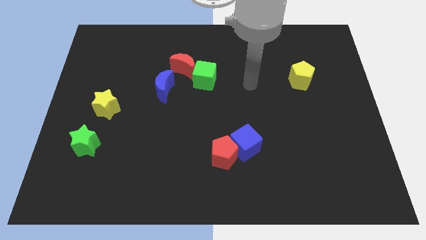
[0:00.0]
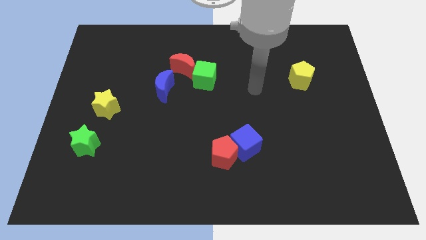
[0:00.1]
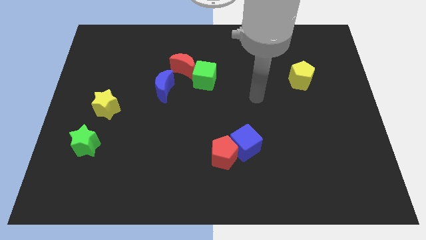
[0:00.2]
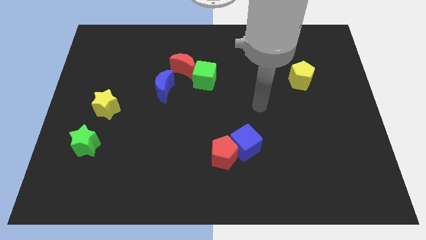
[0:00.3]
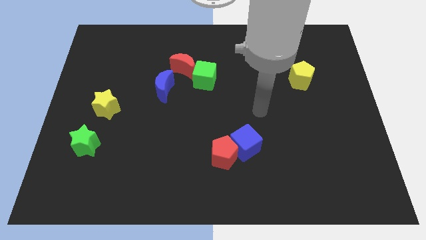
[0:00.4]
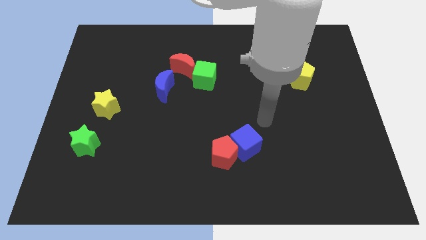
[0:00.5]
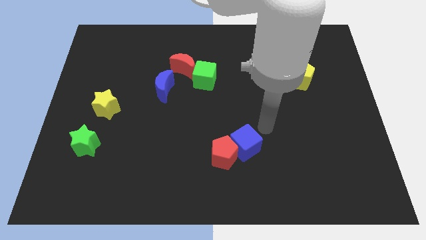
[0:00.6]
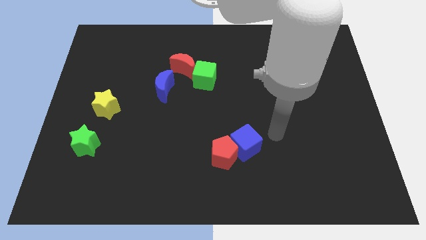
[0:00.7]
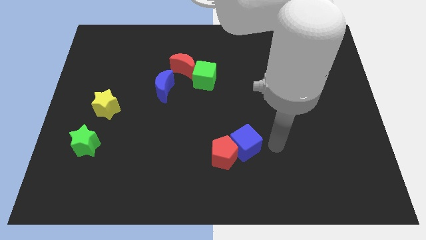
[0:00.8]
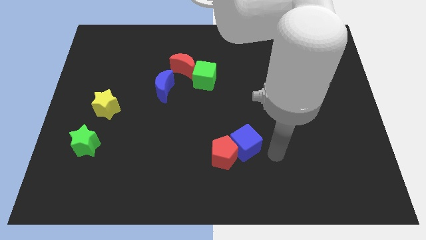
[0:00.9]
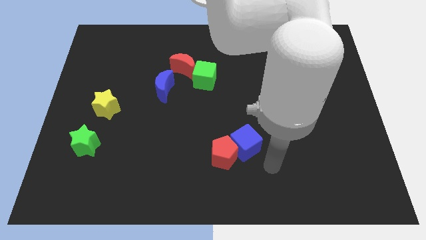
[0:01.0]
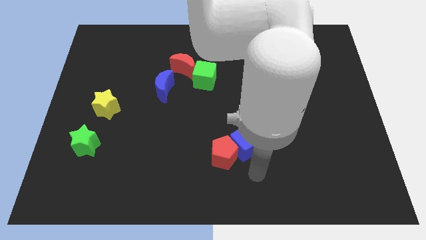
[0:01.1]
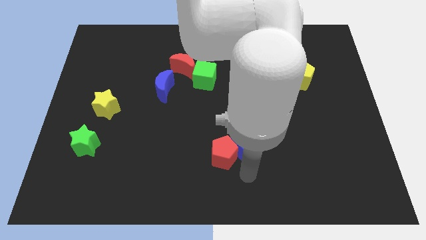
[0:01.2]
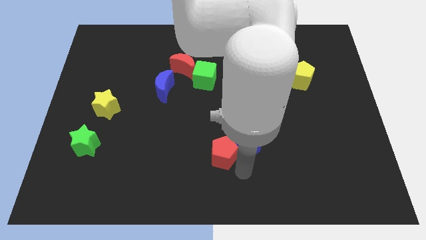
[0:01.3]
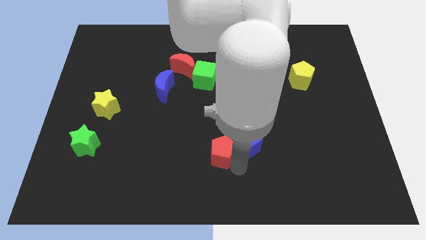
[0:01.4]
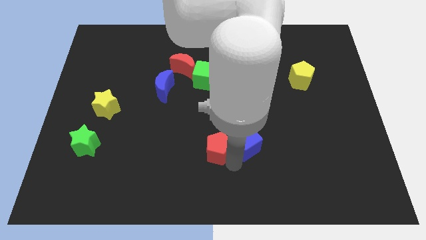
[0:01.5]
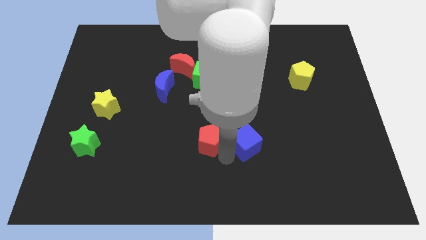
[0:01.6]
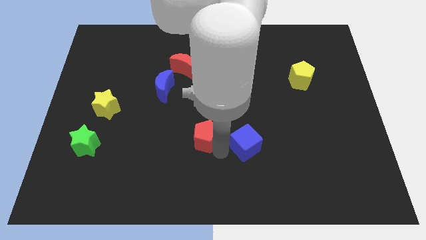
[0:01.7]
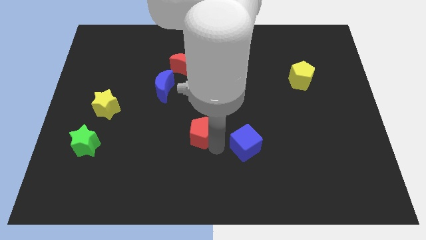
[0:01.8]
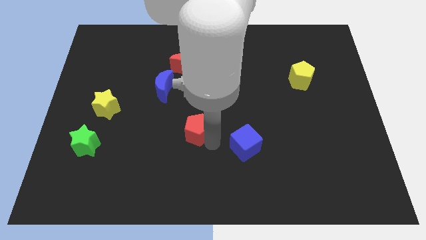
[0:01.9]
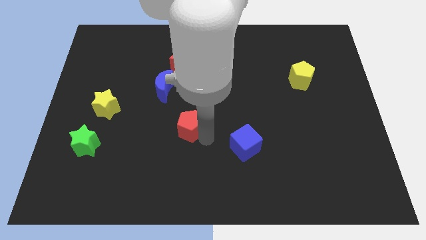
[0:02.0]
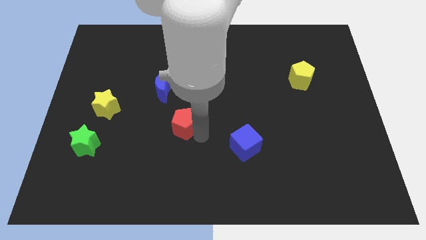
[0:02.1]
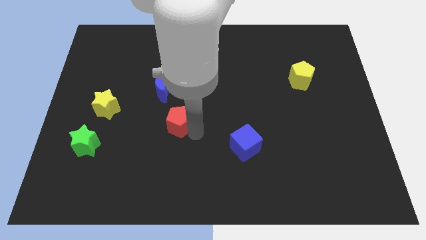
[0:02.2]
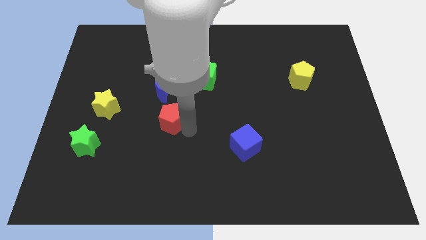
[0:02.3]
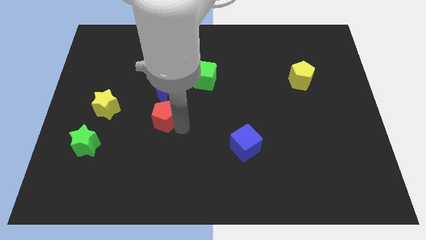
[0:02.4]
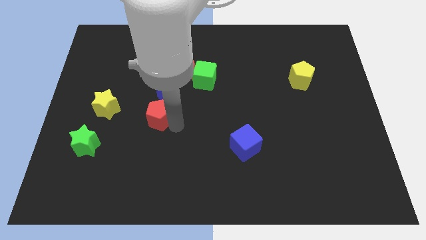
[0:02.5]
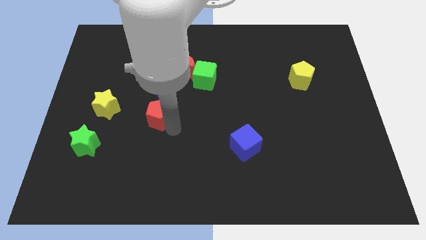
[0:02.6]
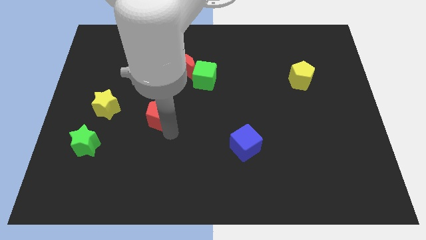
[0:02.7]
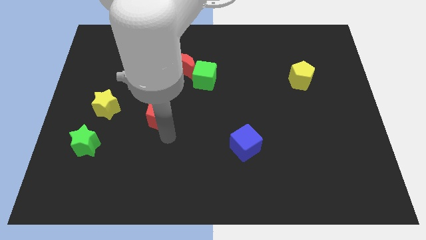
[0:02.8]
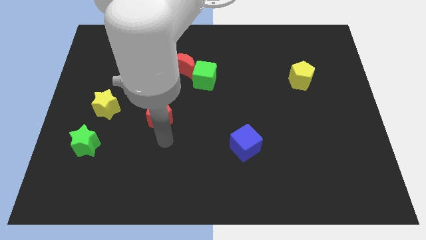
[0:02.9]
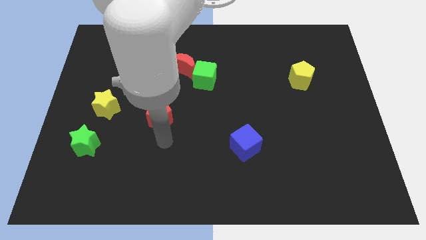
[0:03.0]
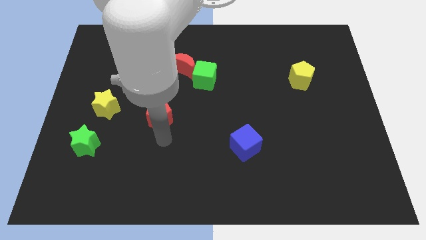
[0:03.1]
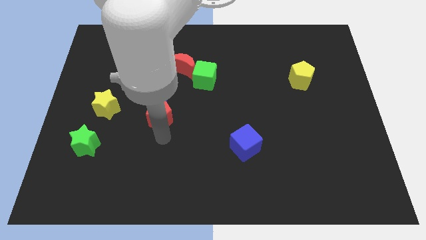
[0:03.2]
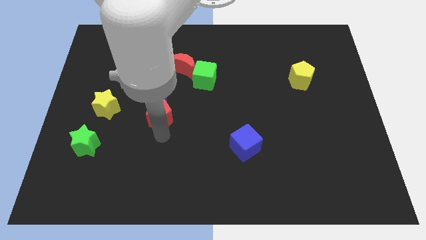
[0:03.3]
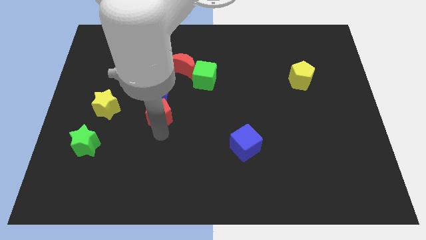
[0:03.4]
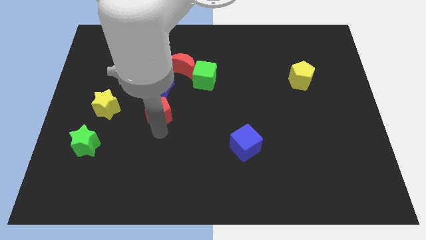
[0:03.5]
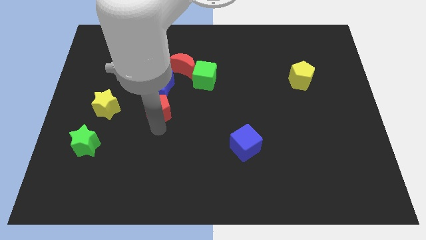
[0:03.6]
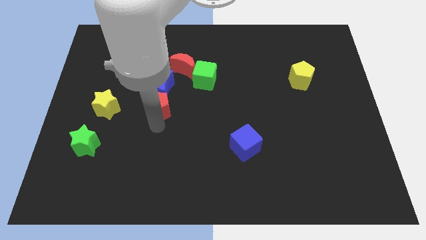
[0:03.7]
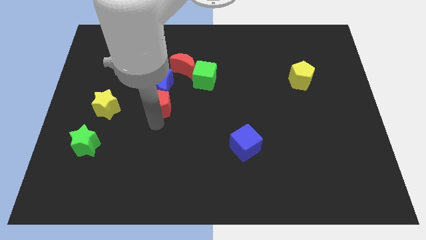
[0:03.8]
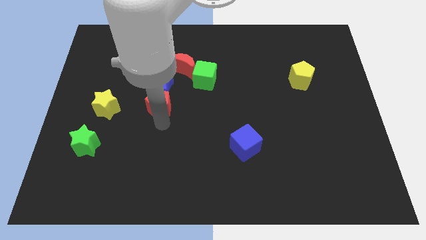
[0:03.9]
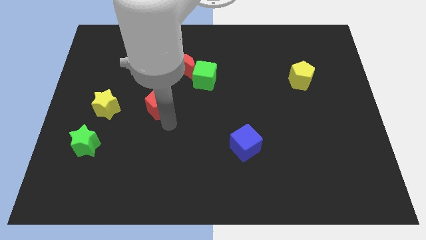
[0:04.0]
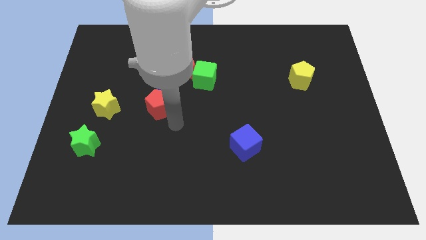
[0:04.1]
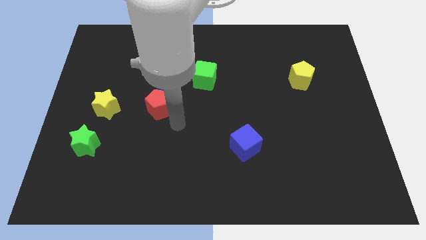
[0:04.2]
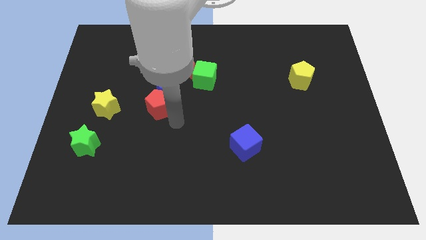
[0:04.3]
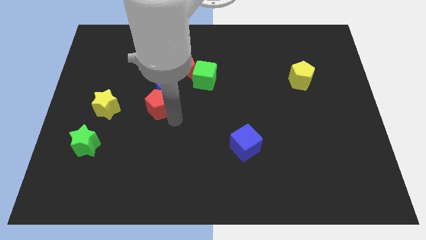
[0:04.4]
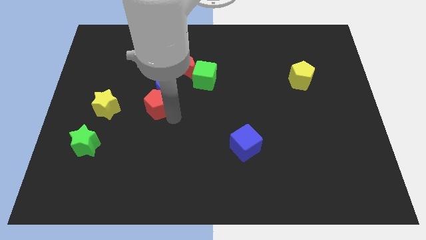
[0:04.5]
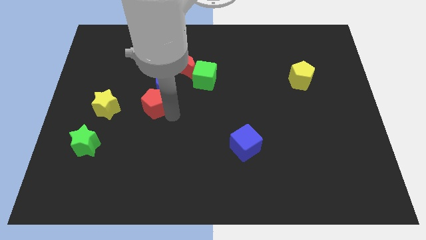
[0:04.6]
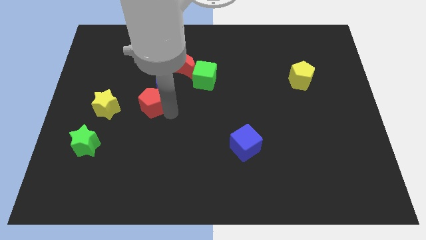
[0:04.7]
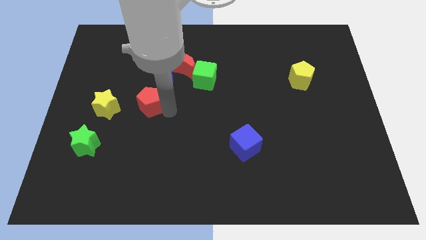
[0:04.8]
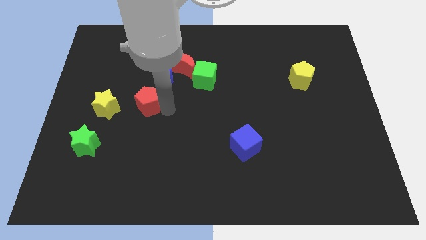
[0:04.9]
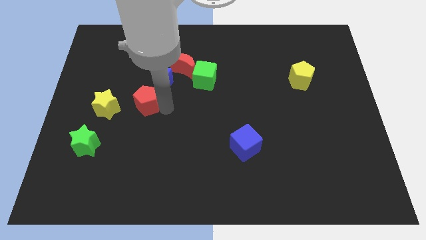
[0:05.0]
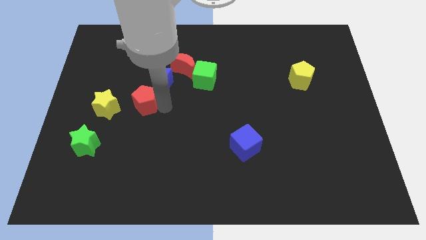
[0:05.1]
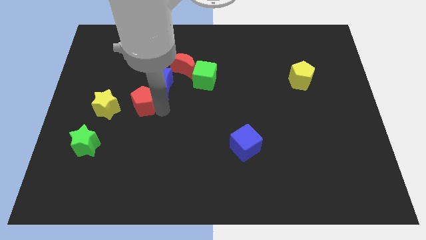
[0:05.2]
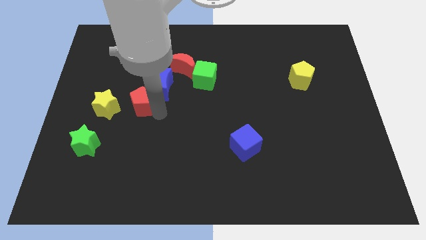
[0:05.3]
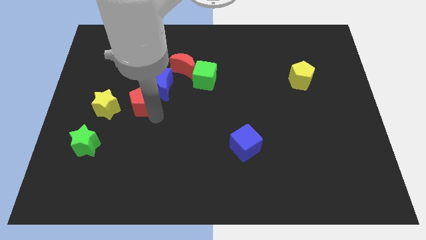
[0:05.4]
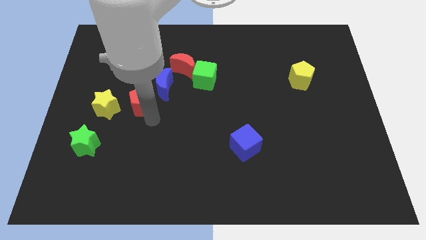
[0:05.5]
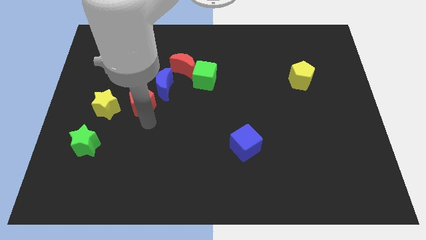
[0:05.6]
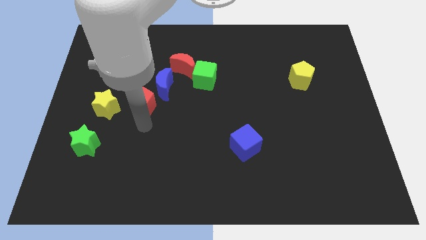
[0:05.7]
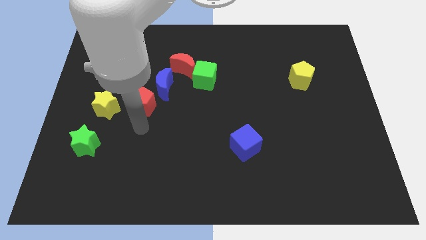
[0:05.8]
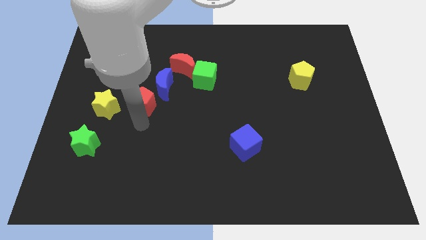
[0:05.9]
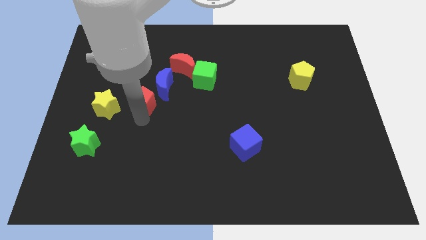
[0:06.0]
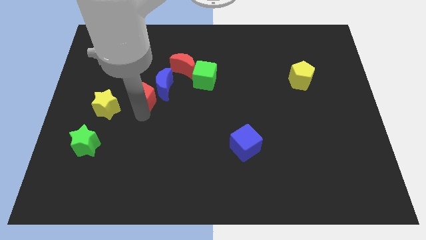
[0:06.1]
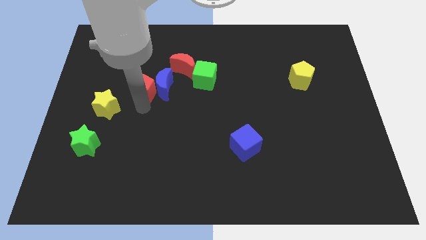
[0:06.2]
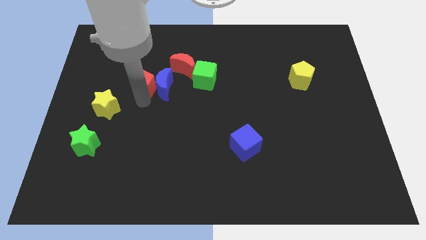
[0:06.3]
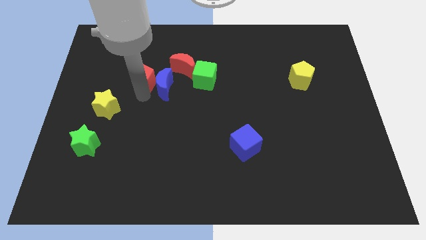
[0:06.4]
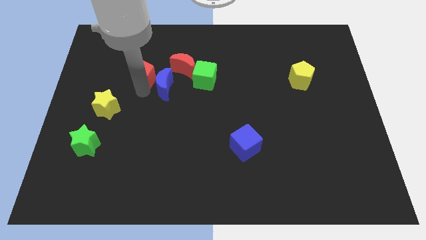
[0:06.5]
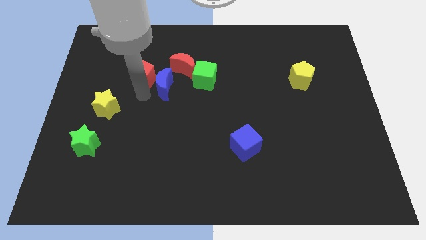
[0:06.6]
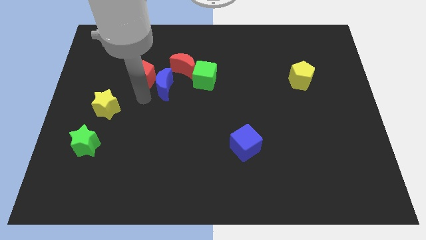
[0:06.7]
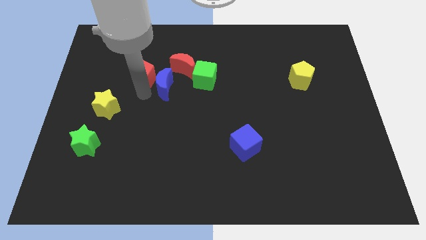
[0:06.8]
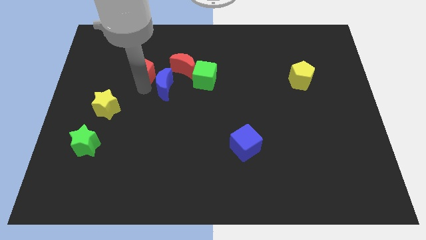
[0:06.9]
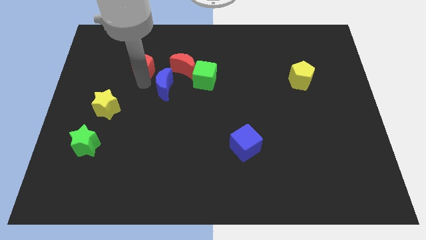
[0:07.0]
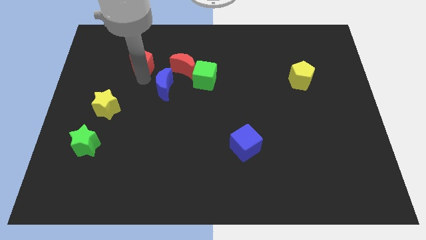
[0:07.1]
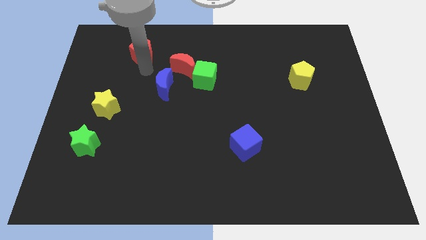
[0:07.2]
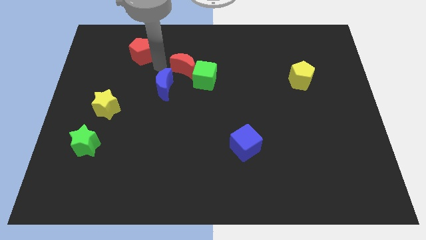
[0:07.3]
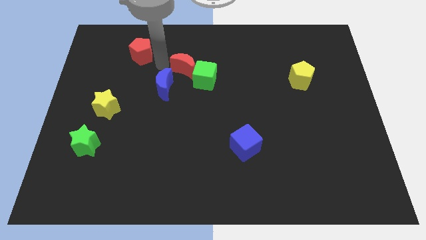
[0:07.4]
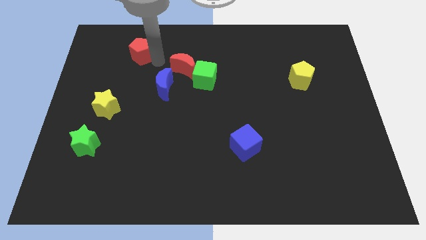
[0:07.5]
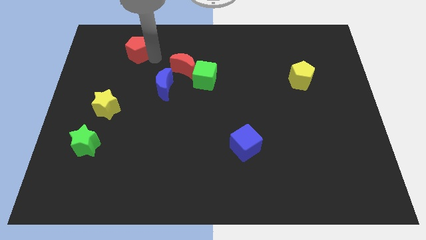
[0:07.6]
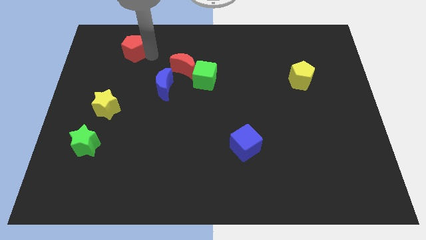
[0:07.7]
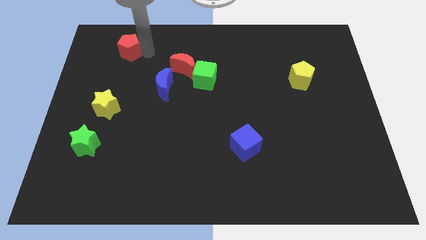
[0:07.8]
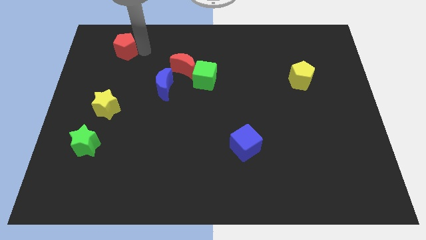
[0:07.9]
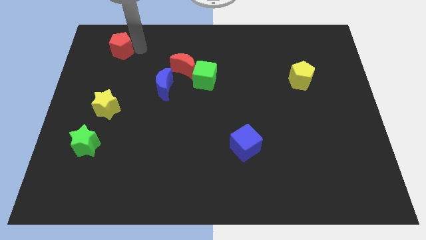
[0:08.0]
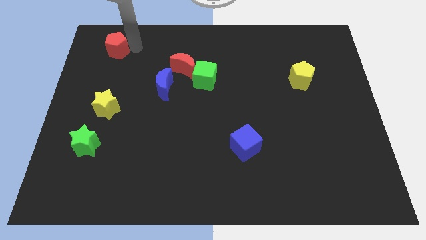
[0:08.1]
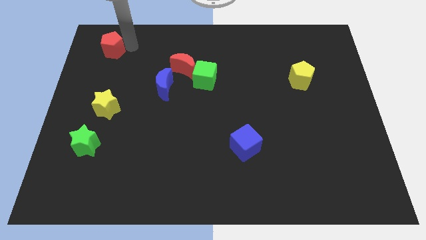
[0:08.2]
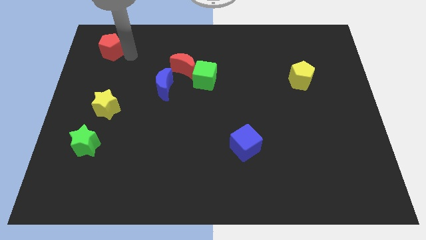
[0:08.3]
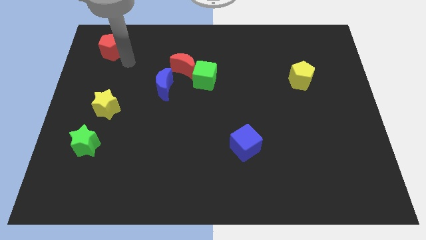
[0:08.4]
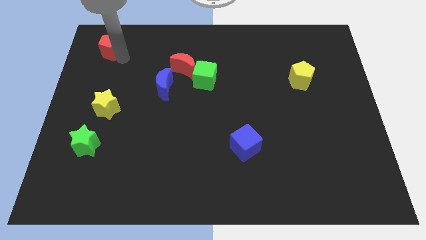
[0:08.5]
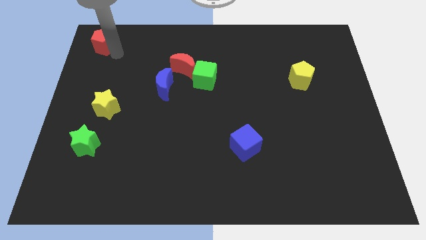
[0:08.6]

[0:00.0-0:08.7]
move the red pentagon to the top left of the board
